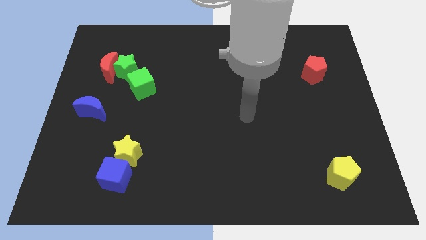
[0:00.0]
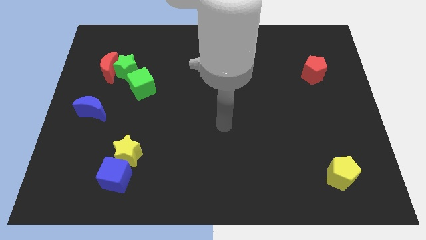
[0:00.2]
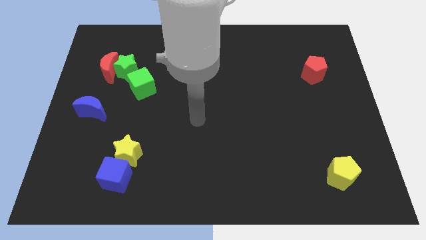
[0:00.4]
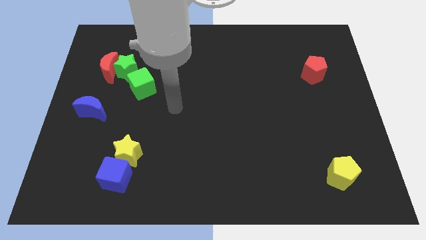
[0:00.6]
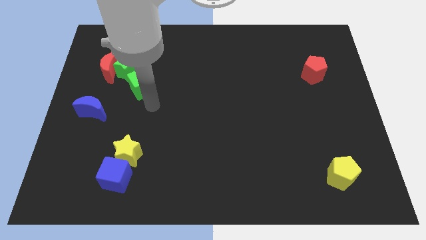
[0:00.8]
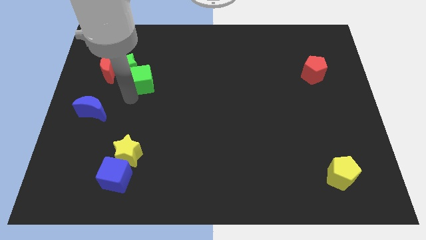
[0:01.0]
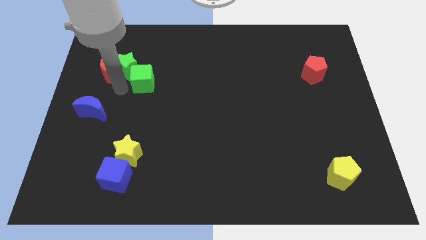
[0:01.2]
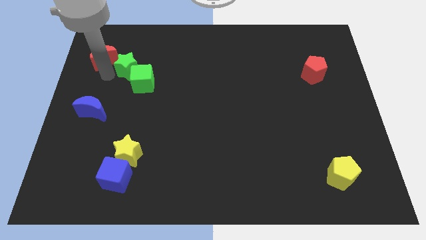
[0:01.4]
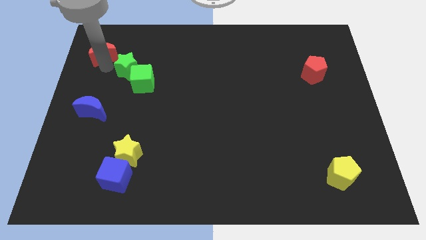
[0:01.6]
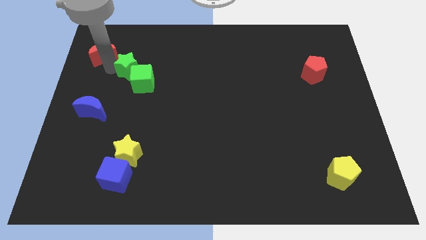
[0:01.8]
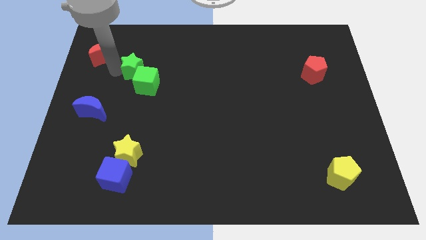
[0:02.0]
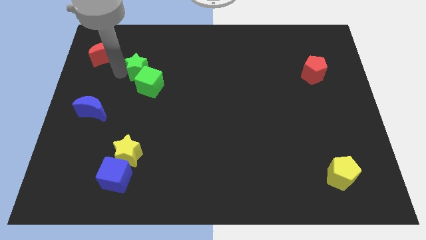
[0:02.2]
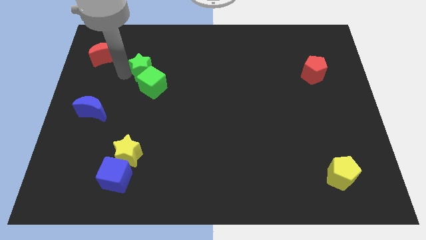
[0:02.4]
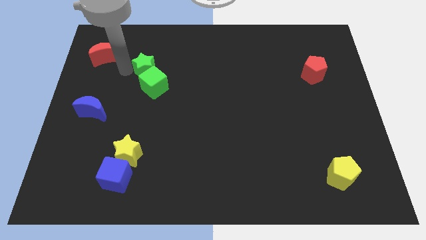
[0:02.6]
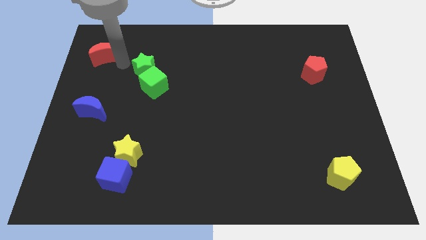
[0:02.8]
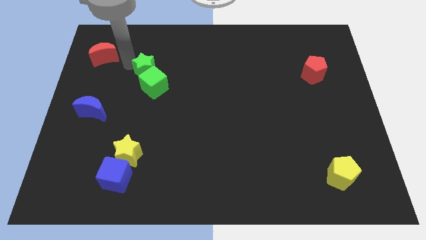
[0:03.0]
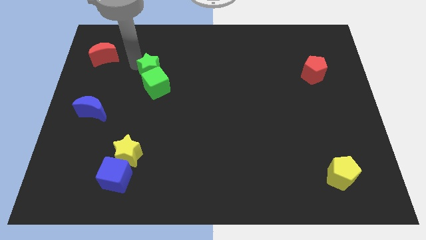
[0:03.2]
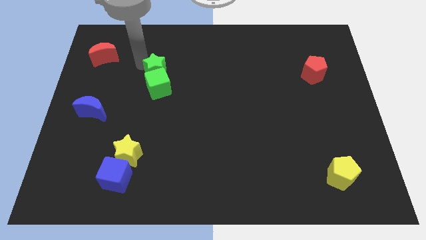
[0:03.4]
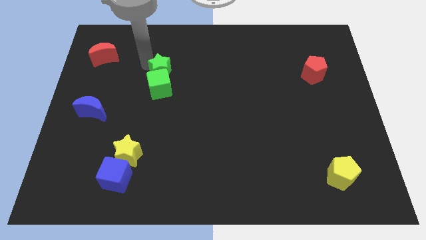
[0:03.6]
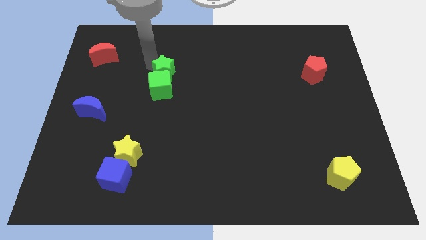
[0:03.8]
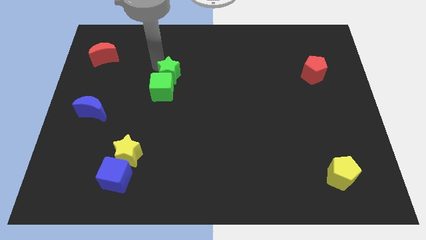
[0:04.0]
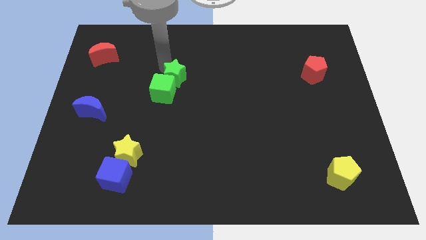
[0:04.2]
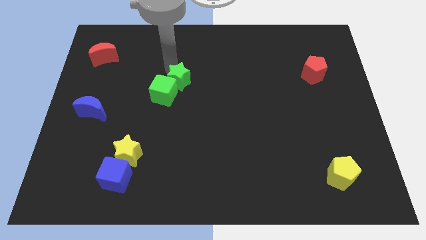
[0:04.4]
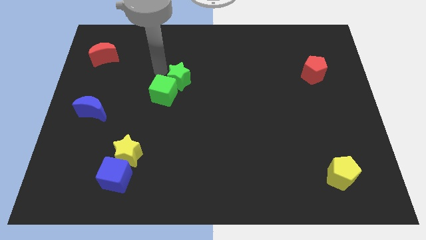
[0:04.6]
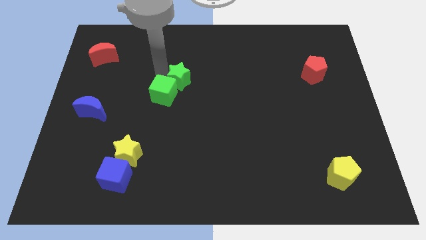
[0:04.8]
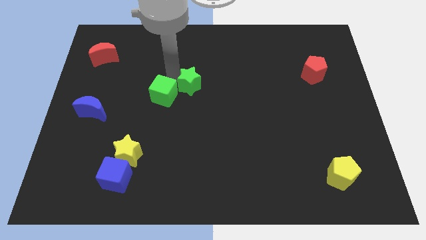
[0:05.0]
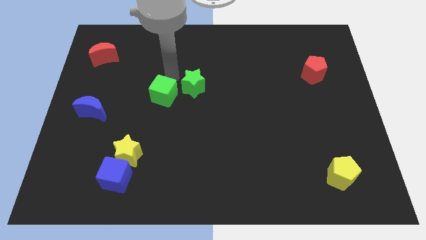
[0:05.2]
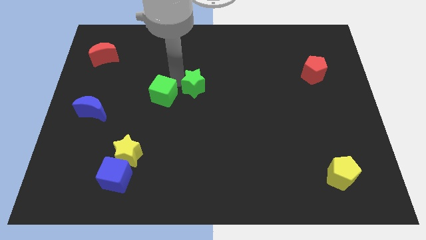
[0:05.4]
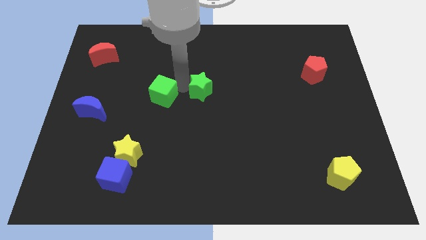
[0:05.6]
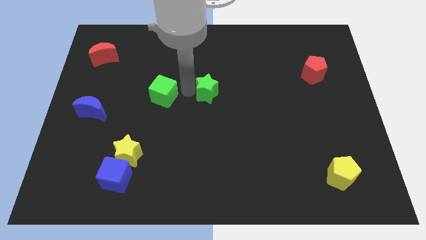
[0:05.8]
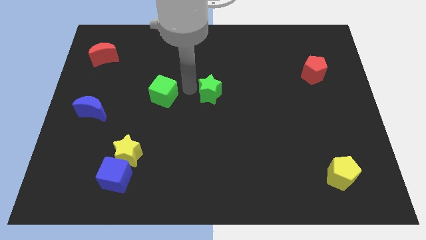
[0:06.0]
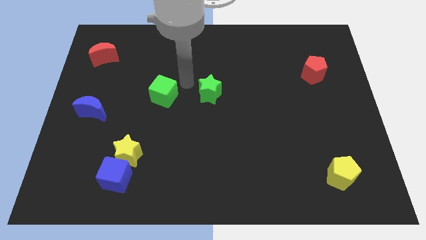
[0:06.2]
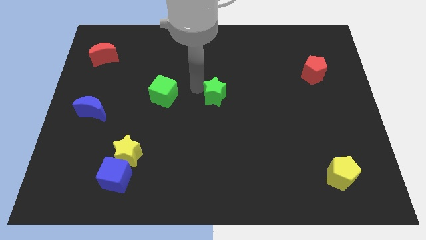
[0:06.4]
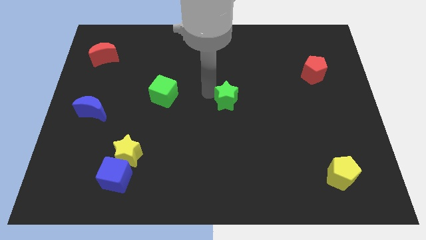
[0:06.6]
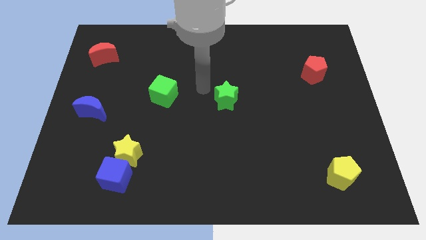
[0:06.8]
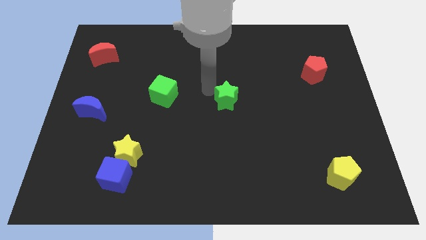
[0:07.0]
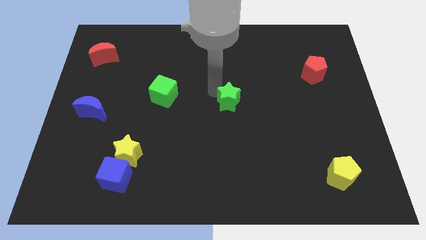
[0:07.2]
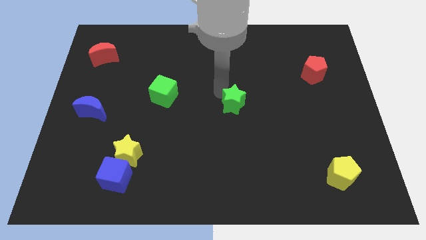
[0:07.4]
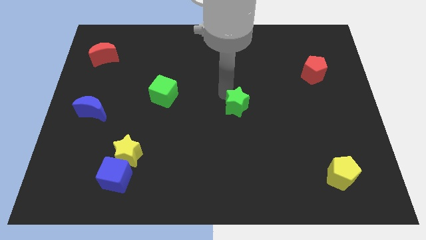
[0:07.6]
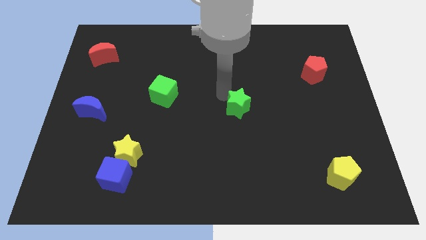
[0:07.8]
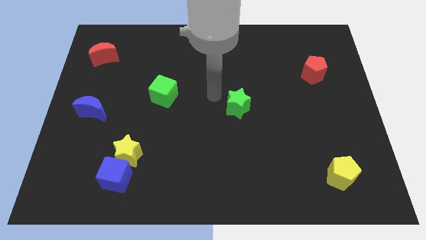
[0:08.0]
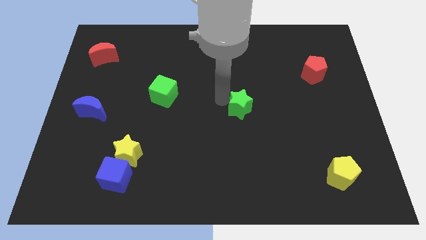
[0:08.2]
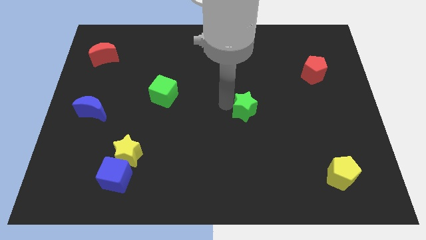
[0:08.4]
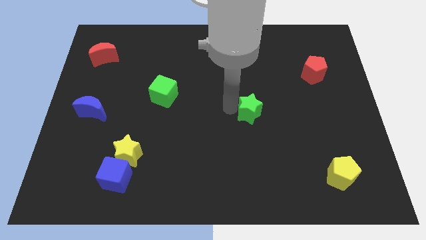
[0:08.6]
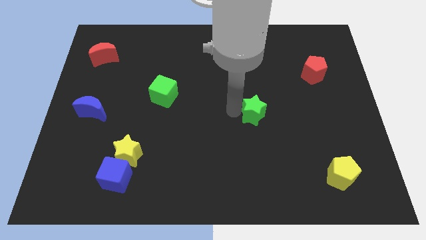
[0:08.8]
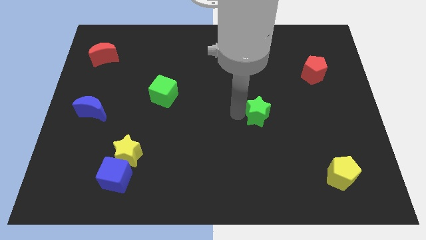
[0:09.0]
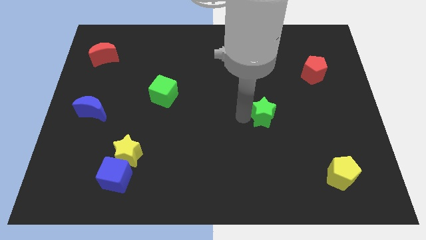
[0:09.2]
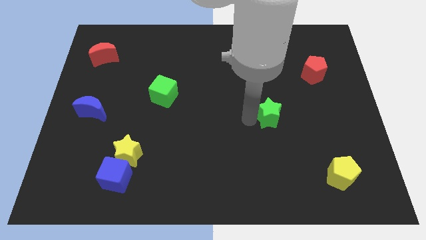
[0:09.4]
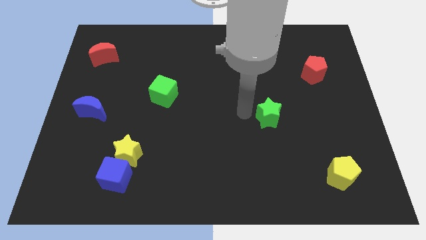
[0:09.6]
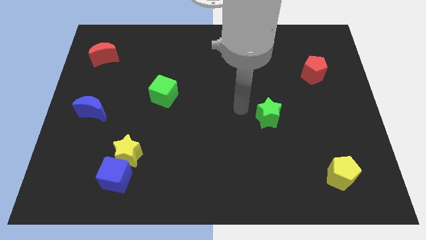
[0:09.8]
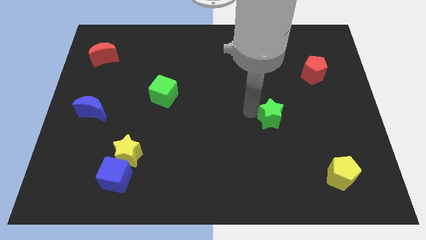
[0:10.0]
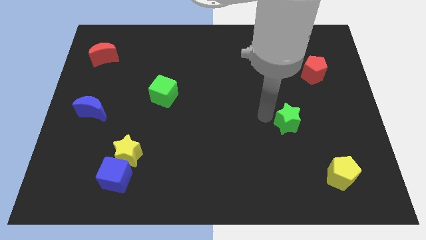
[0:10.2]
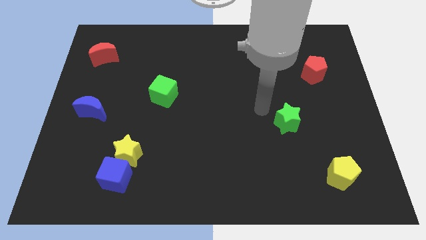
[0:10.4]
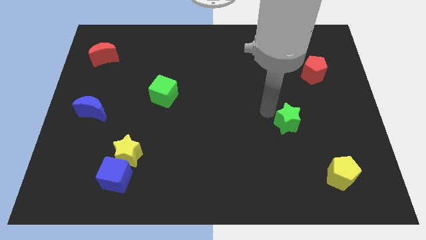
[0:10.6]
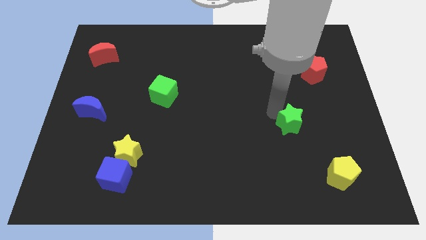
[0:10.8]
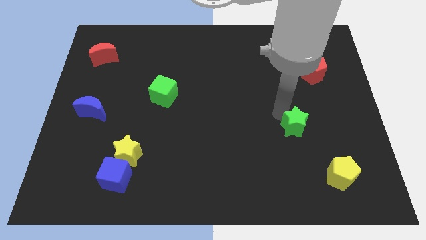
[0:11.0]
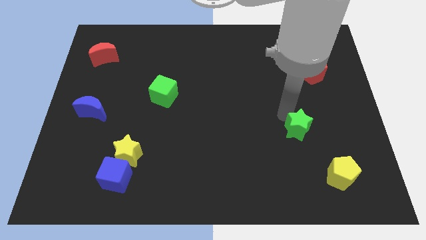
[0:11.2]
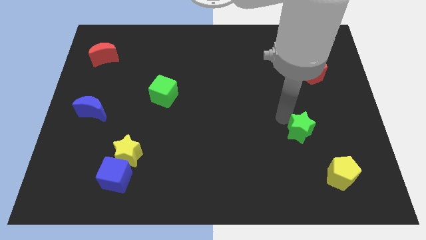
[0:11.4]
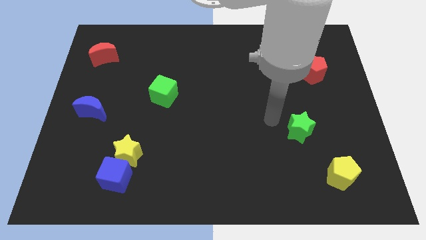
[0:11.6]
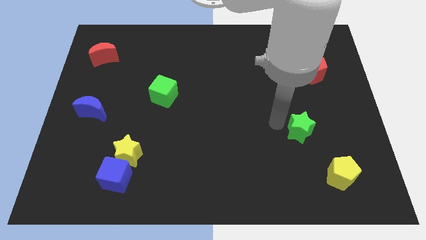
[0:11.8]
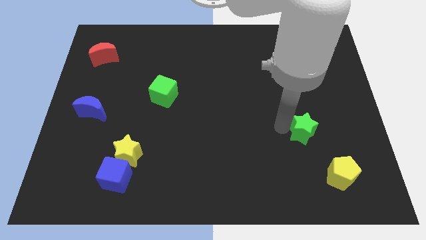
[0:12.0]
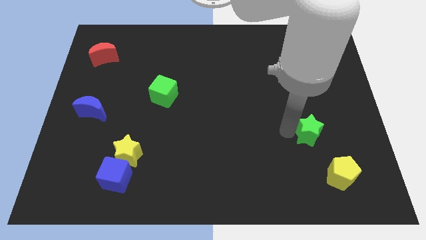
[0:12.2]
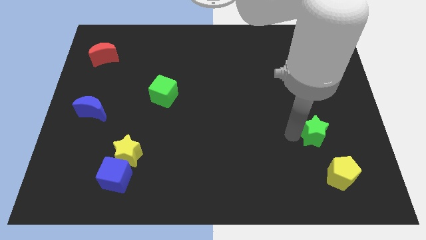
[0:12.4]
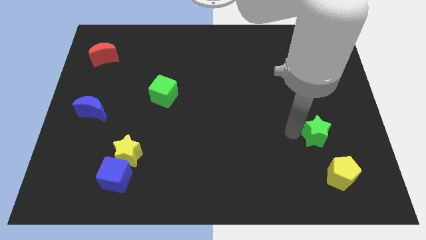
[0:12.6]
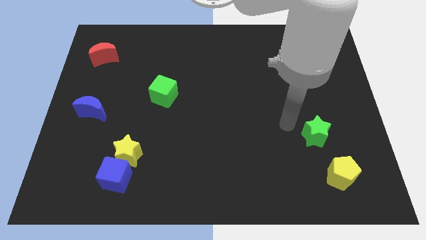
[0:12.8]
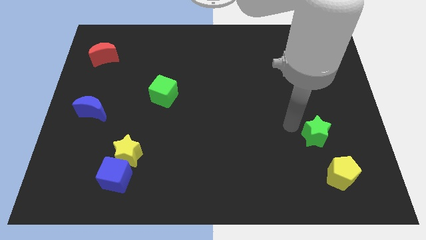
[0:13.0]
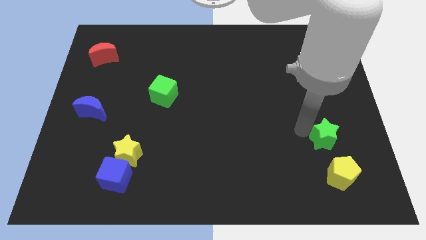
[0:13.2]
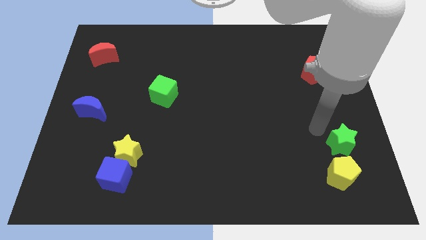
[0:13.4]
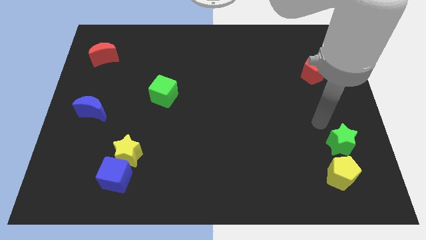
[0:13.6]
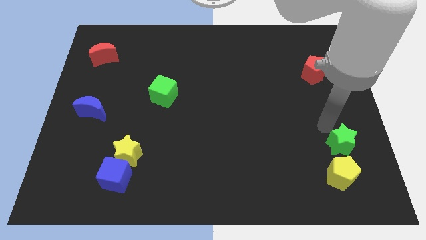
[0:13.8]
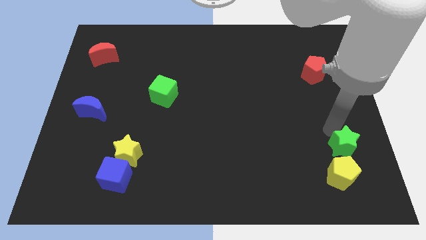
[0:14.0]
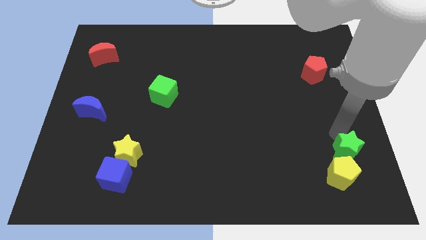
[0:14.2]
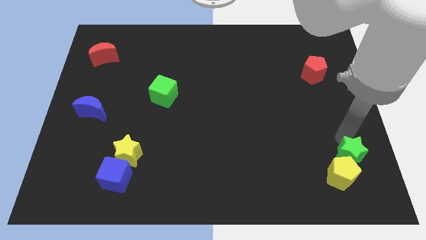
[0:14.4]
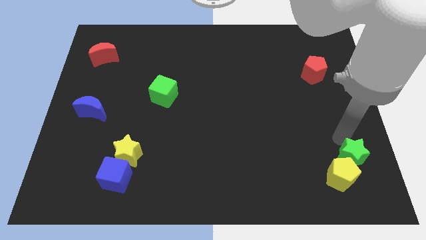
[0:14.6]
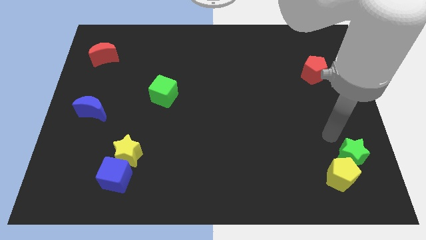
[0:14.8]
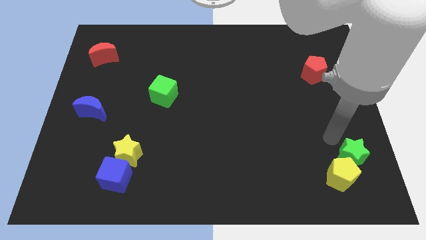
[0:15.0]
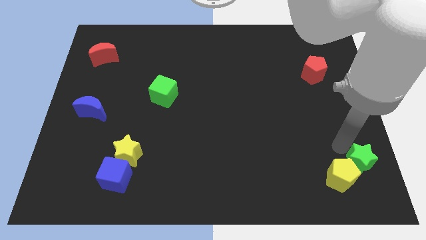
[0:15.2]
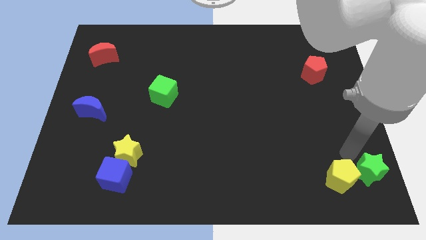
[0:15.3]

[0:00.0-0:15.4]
move the green star to the bottom right
